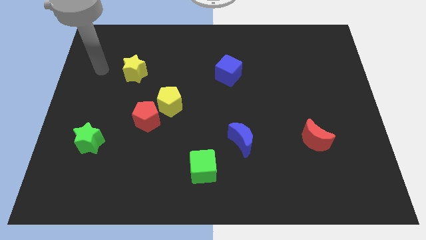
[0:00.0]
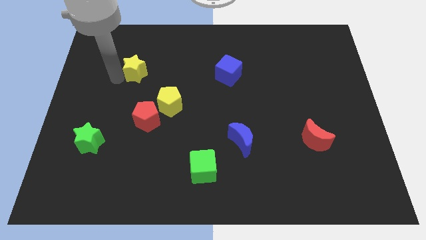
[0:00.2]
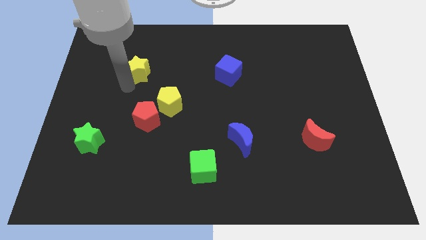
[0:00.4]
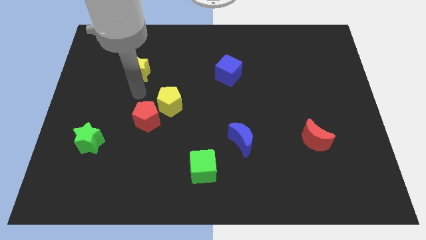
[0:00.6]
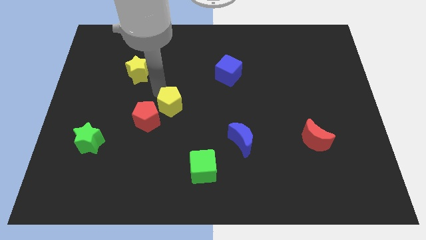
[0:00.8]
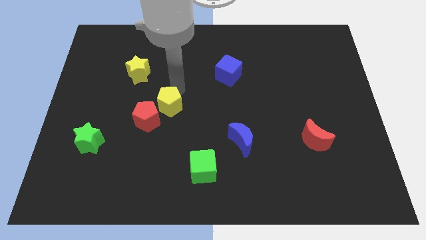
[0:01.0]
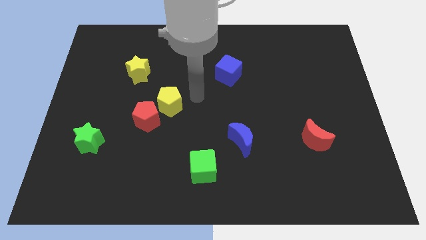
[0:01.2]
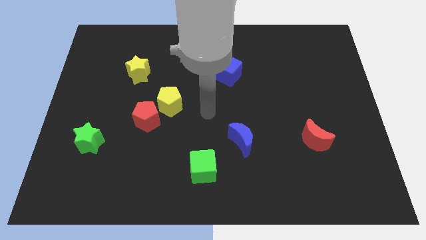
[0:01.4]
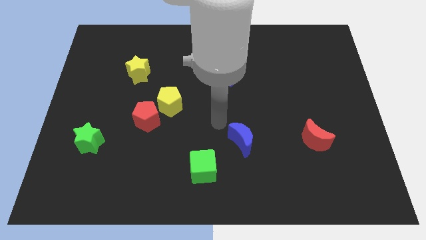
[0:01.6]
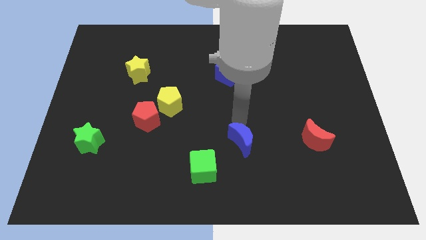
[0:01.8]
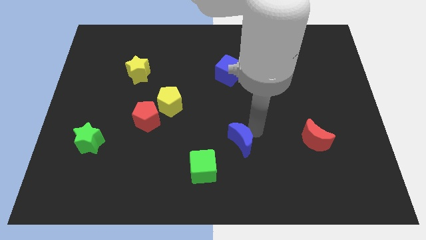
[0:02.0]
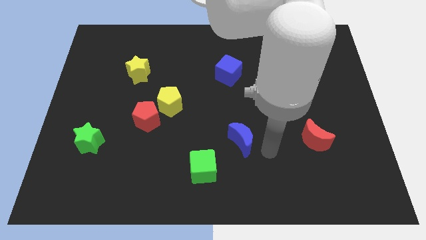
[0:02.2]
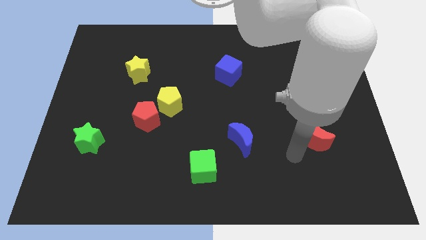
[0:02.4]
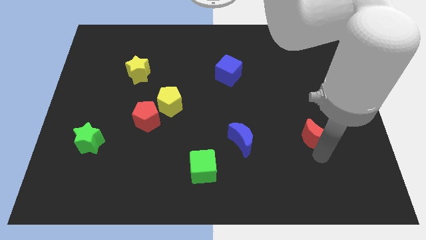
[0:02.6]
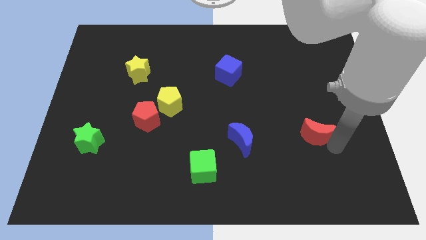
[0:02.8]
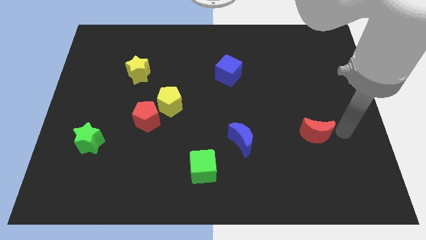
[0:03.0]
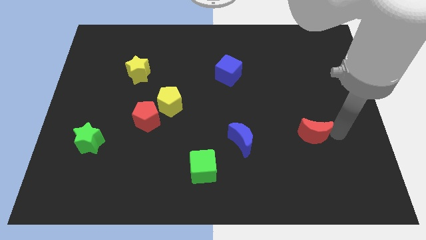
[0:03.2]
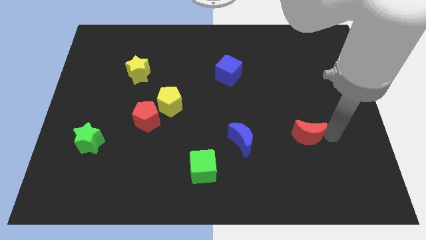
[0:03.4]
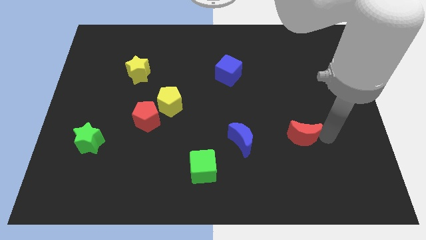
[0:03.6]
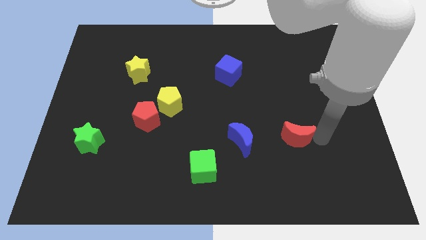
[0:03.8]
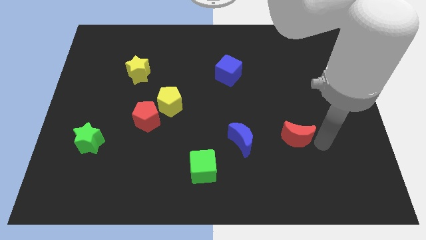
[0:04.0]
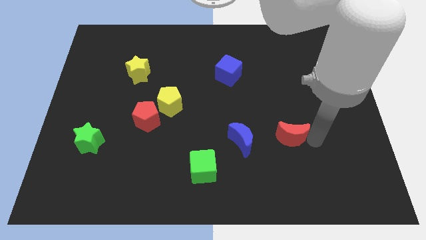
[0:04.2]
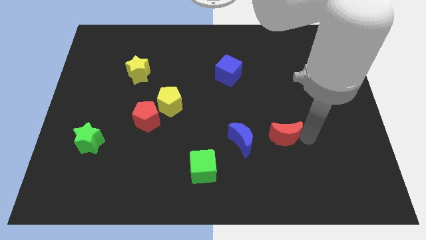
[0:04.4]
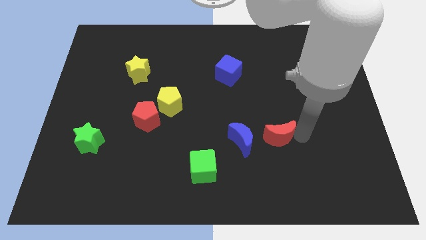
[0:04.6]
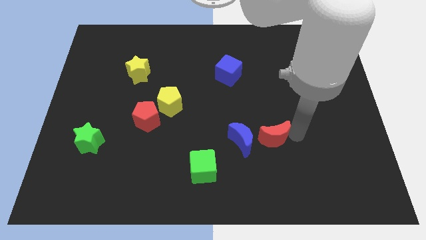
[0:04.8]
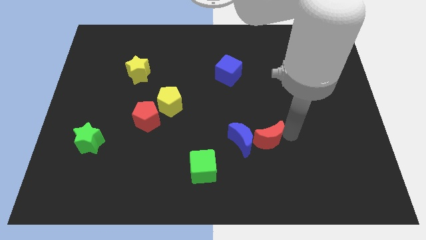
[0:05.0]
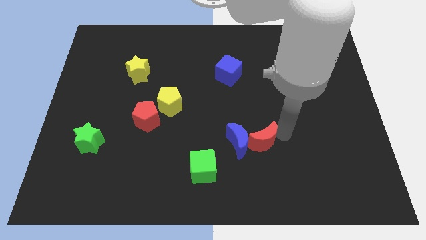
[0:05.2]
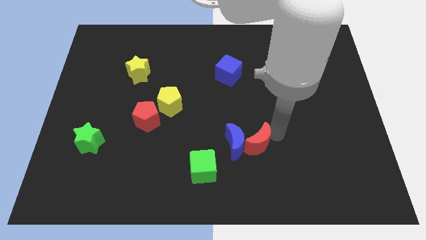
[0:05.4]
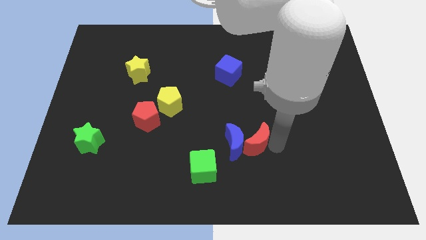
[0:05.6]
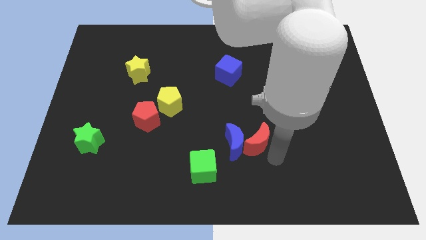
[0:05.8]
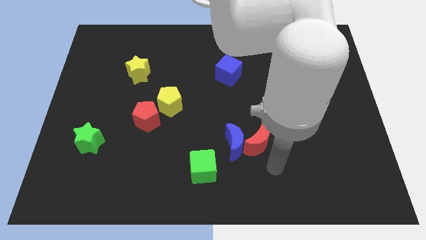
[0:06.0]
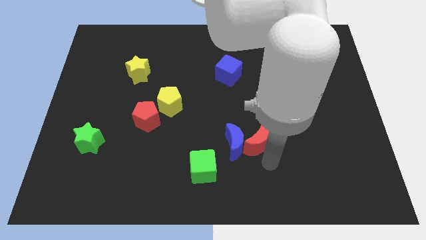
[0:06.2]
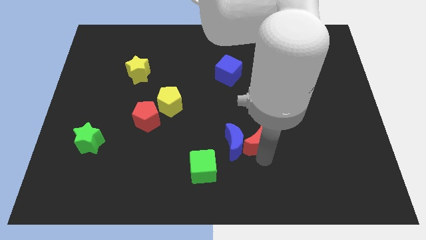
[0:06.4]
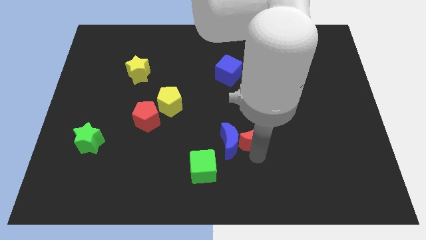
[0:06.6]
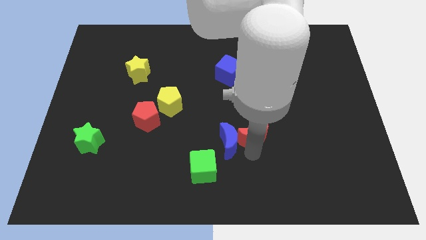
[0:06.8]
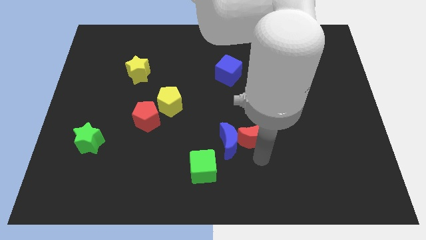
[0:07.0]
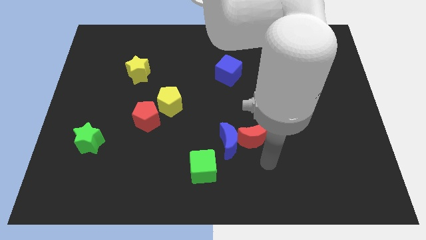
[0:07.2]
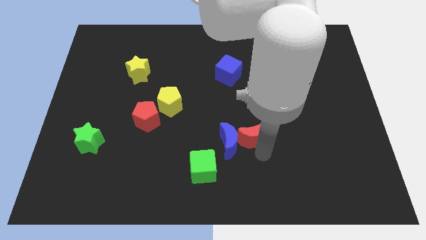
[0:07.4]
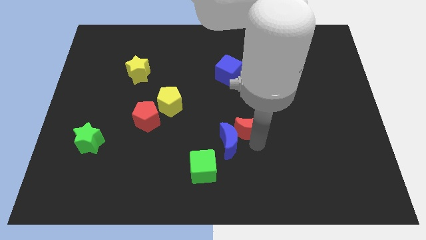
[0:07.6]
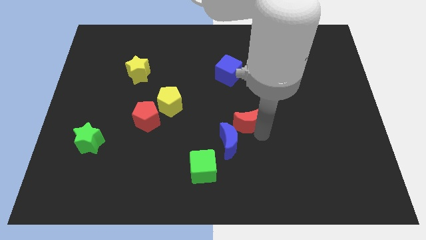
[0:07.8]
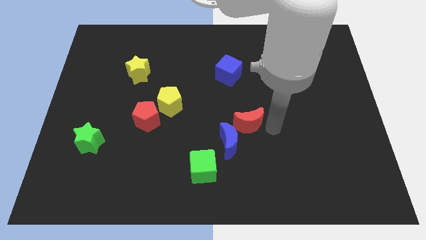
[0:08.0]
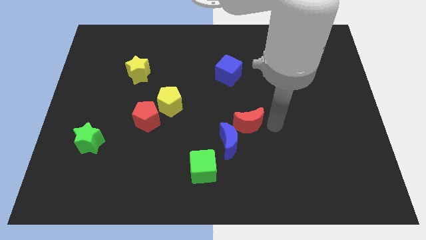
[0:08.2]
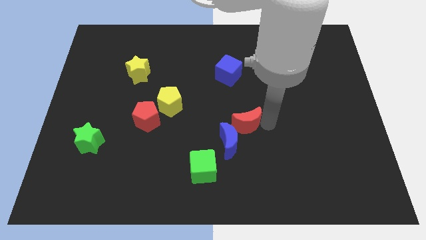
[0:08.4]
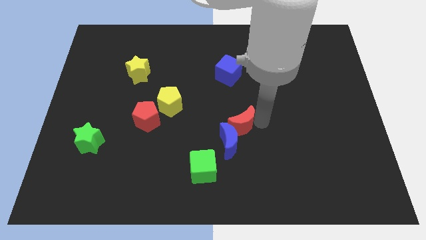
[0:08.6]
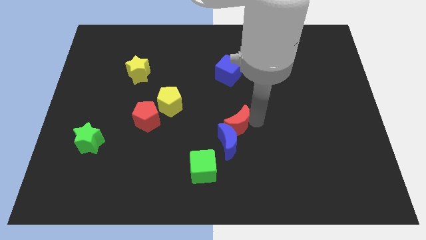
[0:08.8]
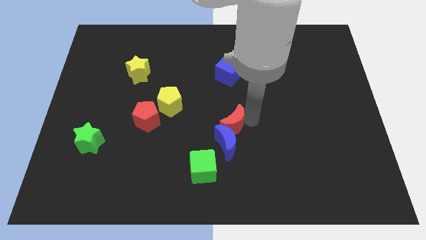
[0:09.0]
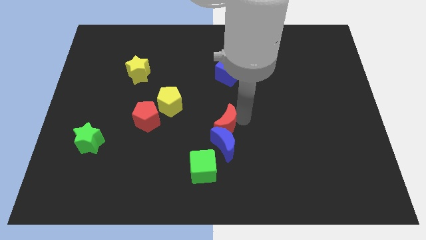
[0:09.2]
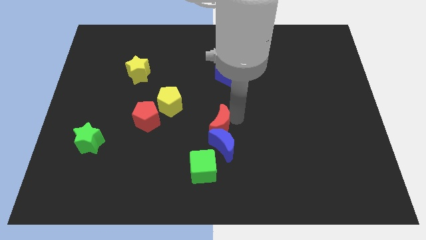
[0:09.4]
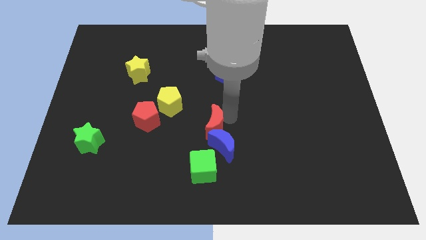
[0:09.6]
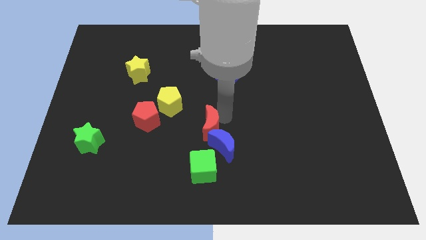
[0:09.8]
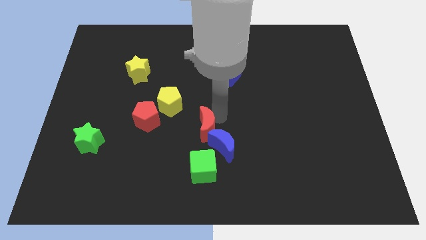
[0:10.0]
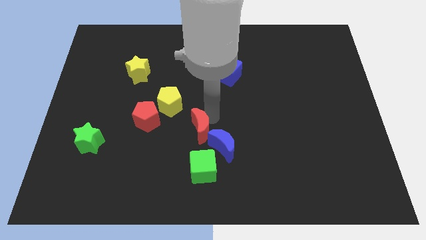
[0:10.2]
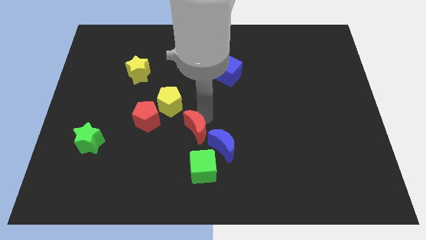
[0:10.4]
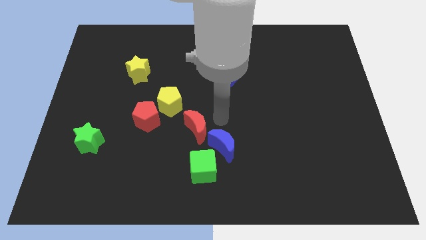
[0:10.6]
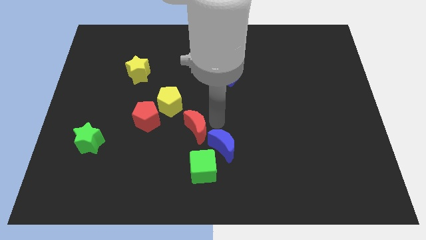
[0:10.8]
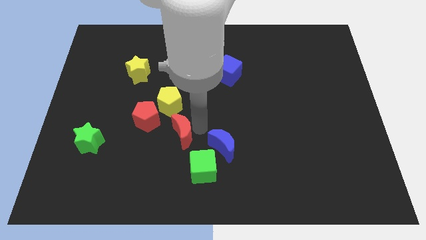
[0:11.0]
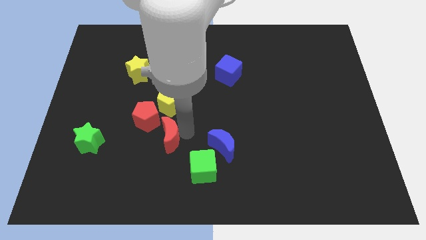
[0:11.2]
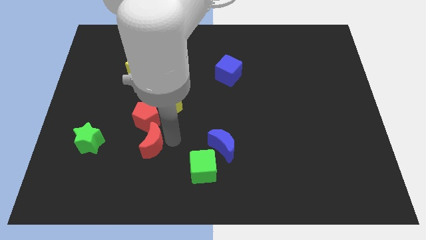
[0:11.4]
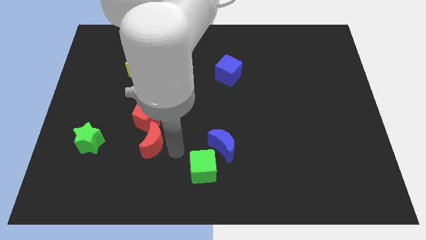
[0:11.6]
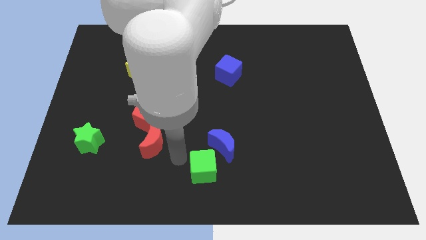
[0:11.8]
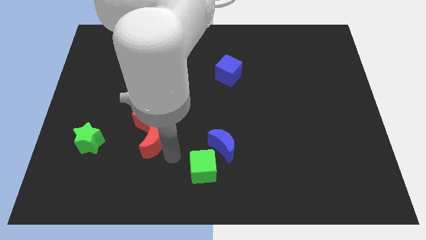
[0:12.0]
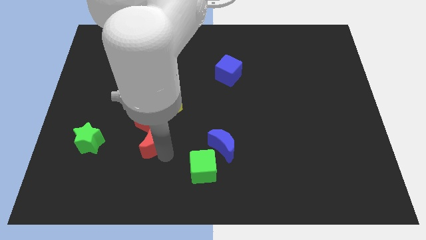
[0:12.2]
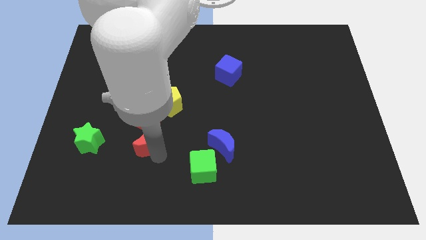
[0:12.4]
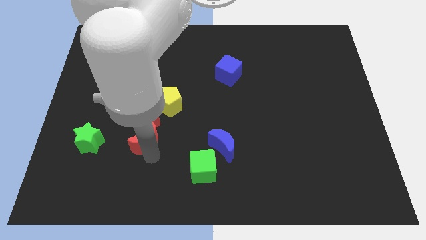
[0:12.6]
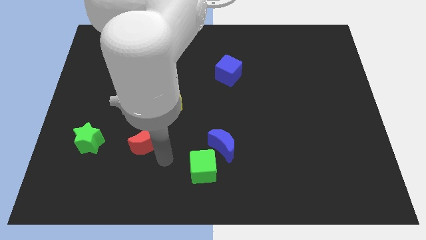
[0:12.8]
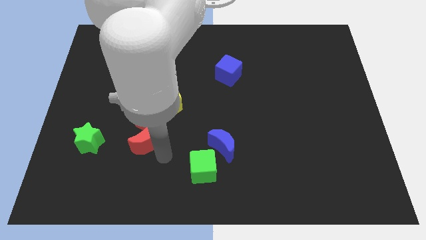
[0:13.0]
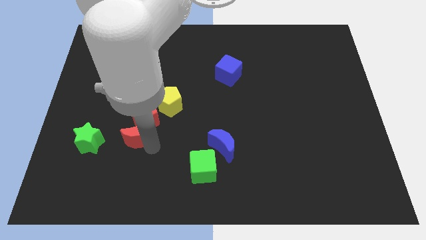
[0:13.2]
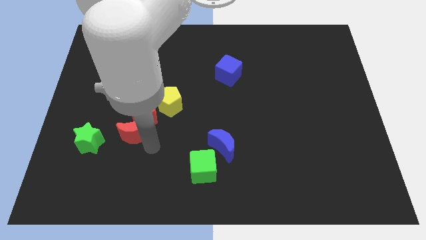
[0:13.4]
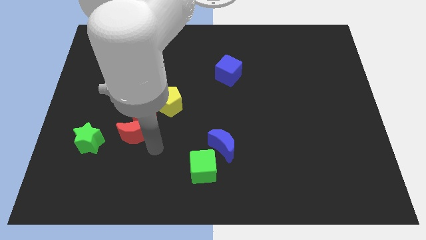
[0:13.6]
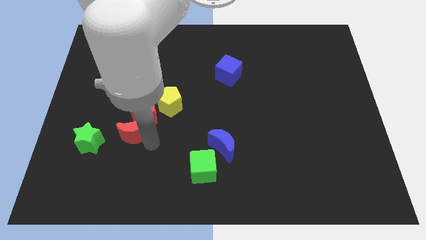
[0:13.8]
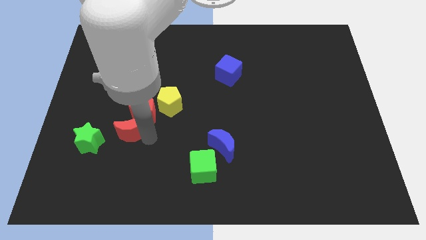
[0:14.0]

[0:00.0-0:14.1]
move the red moon to the top right side of the green star

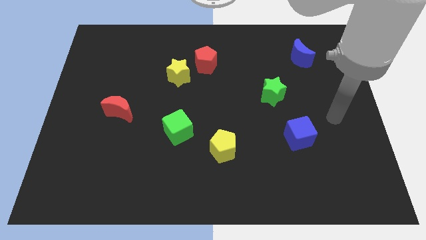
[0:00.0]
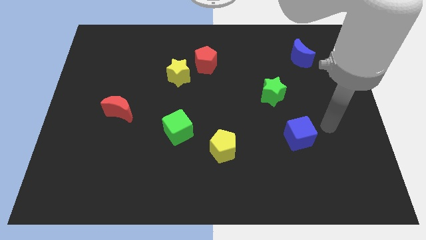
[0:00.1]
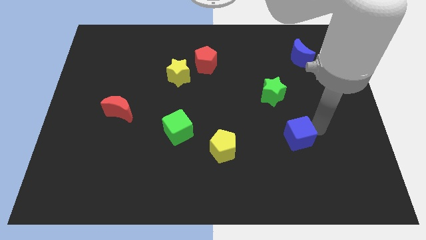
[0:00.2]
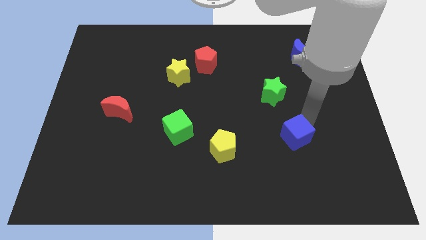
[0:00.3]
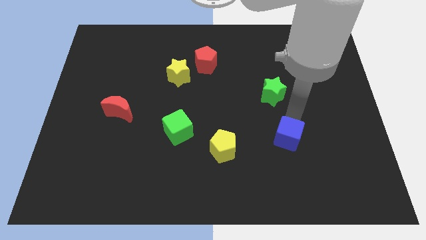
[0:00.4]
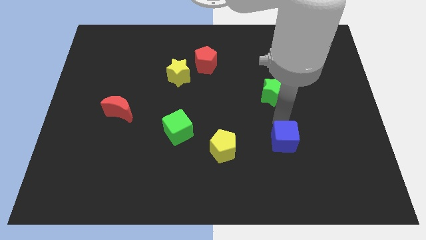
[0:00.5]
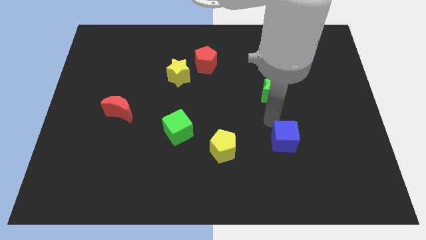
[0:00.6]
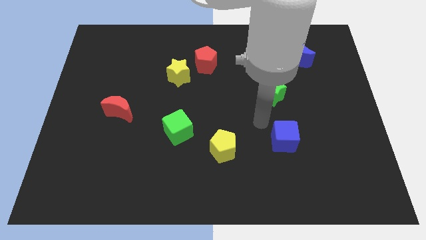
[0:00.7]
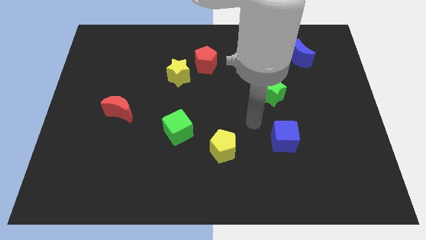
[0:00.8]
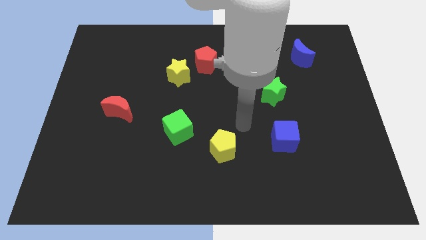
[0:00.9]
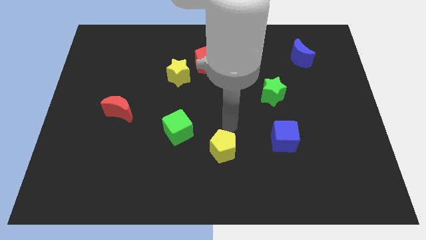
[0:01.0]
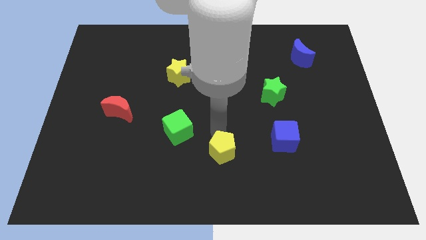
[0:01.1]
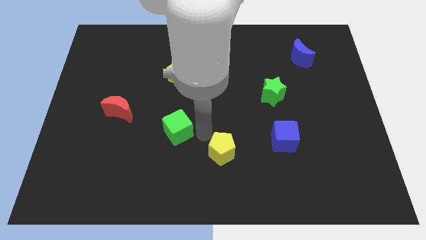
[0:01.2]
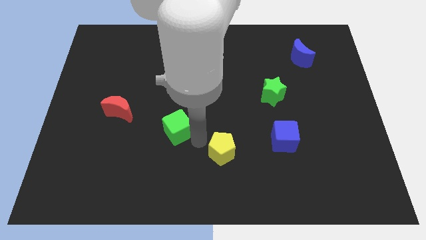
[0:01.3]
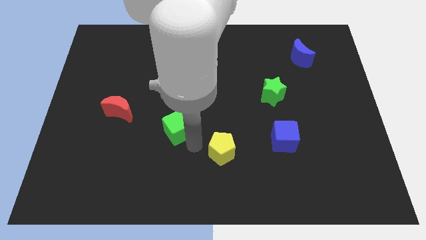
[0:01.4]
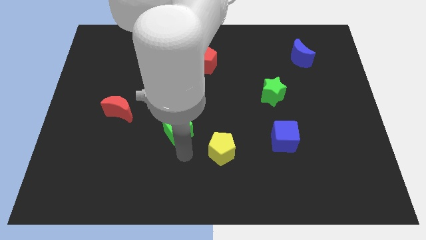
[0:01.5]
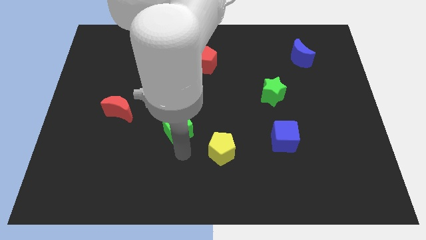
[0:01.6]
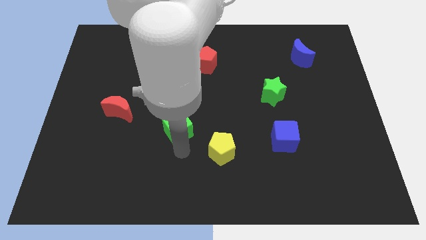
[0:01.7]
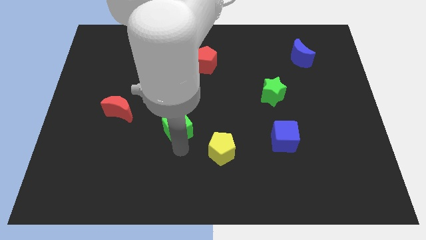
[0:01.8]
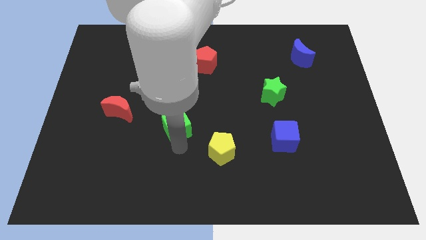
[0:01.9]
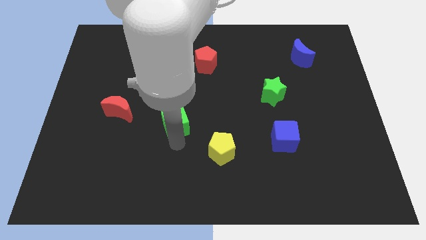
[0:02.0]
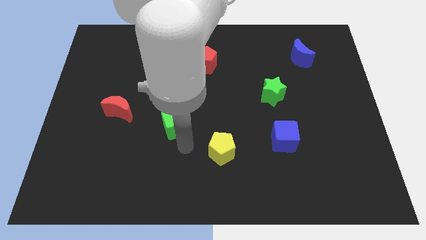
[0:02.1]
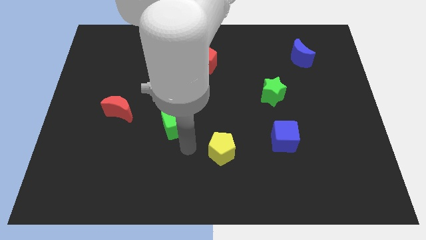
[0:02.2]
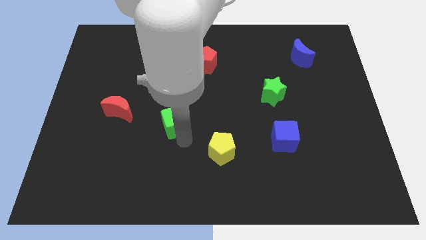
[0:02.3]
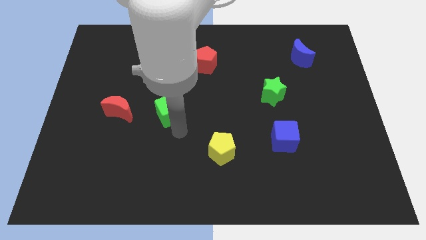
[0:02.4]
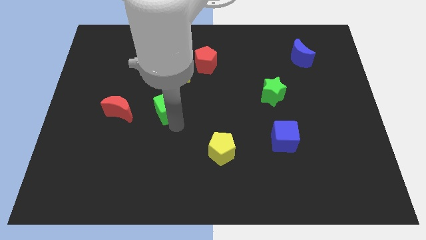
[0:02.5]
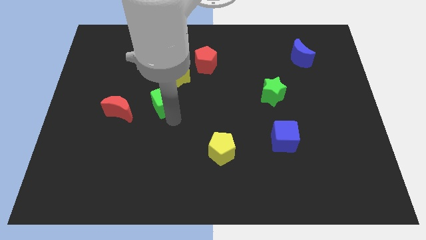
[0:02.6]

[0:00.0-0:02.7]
put the green cube to the bottom left of the yellow star
